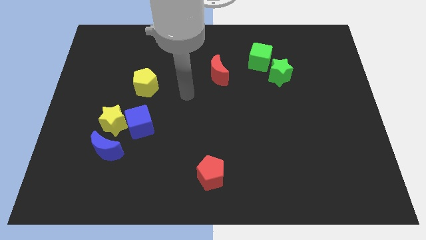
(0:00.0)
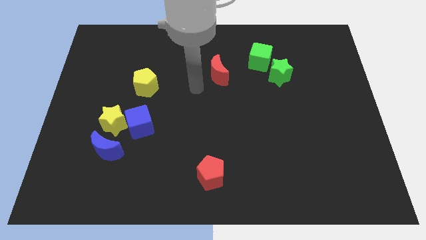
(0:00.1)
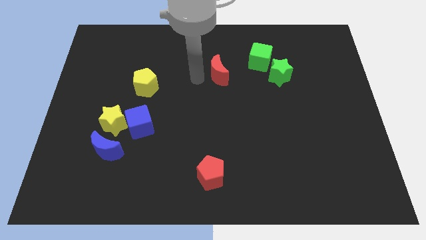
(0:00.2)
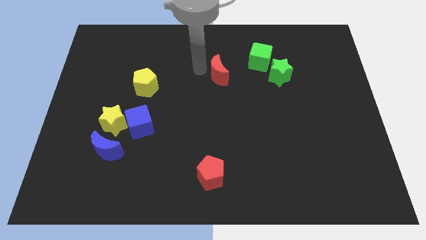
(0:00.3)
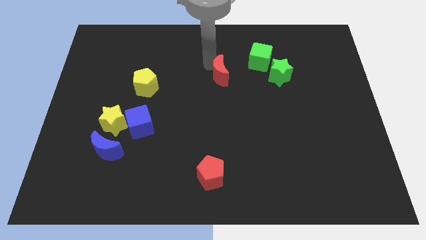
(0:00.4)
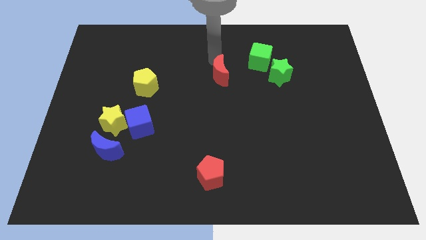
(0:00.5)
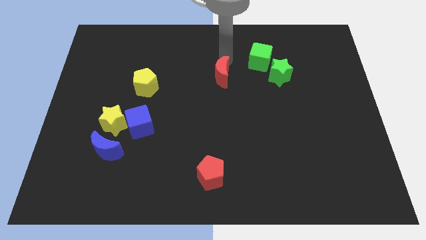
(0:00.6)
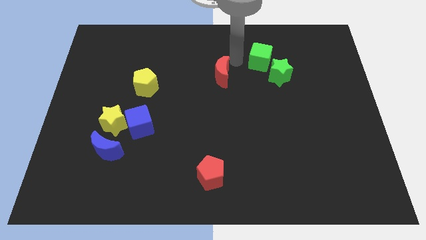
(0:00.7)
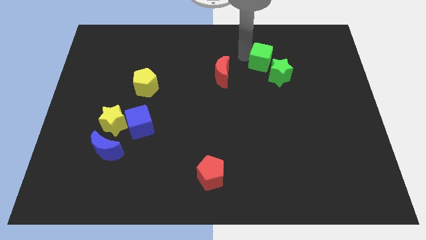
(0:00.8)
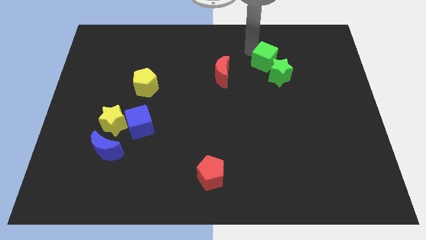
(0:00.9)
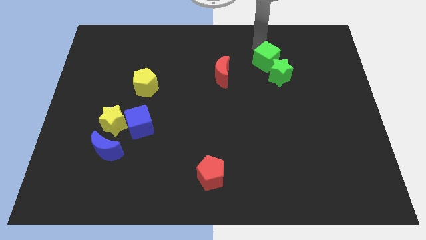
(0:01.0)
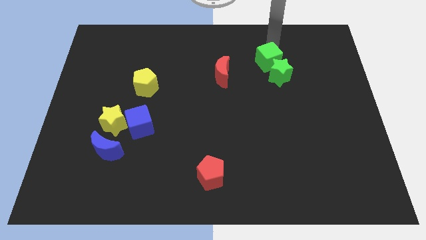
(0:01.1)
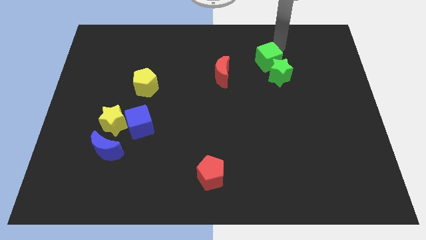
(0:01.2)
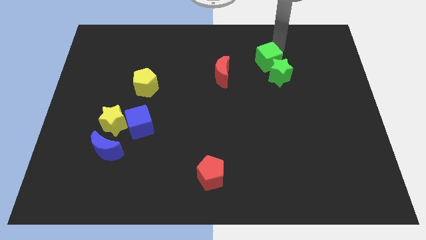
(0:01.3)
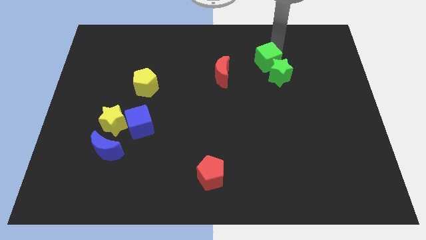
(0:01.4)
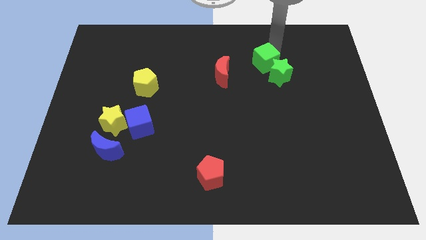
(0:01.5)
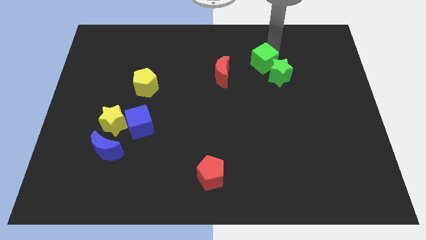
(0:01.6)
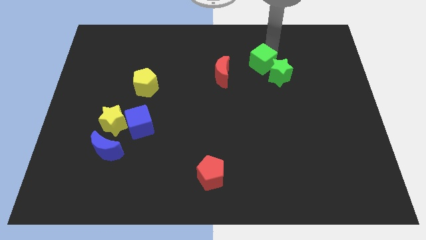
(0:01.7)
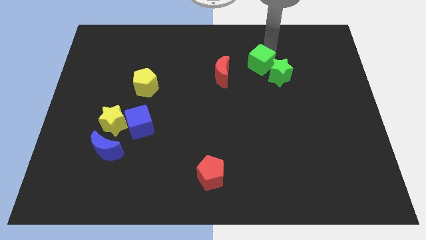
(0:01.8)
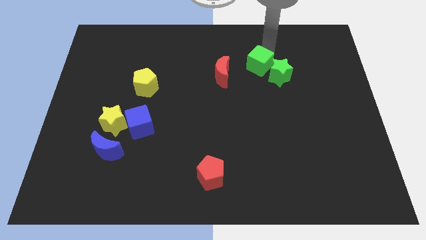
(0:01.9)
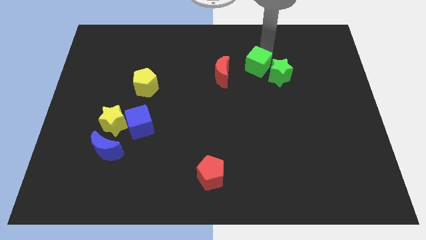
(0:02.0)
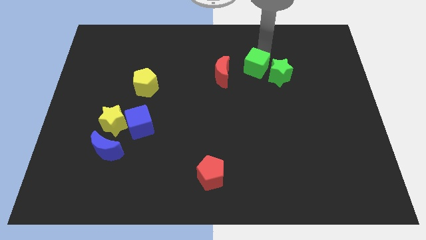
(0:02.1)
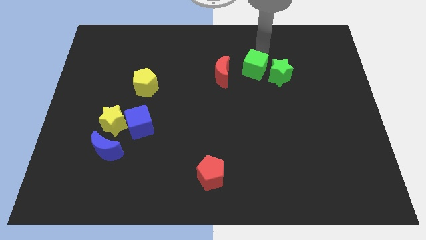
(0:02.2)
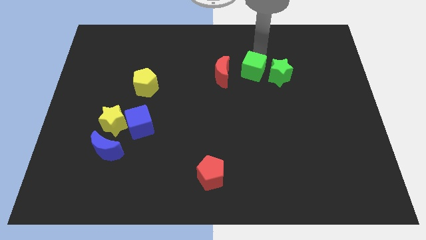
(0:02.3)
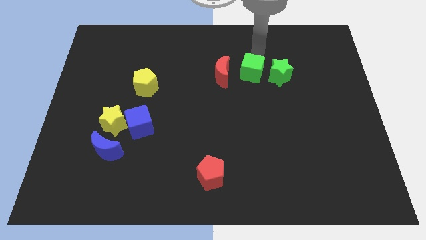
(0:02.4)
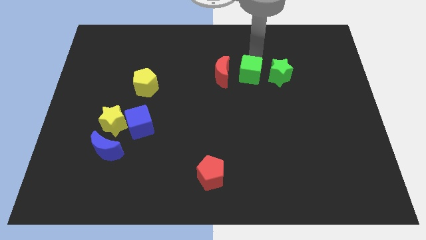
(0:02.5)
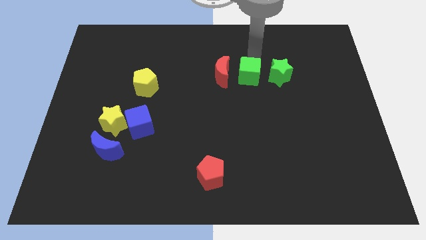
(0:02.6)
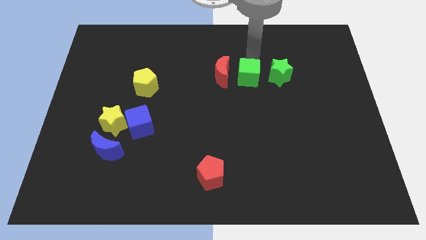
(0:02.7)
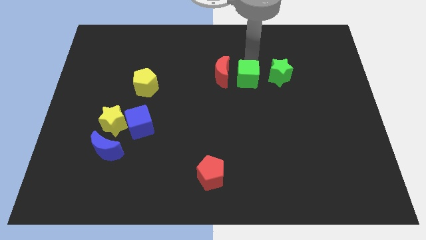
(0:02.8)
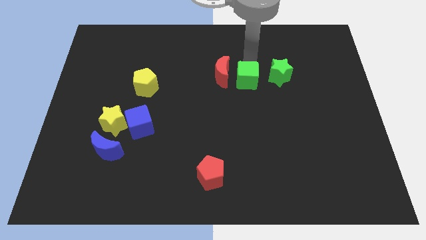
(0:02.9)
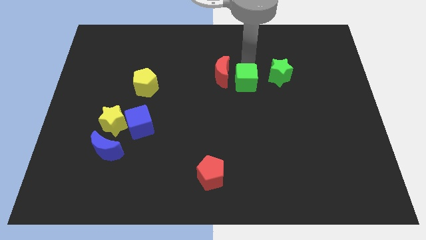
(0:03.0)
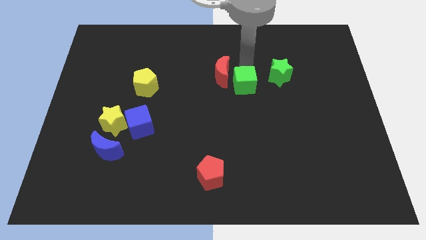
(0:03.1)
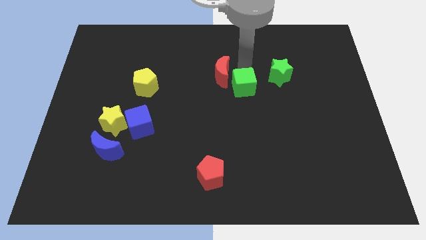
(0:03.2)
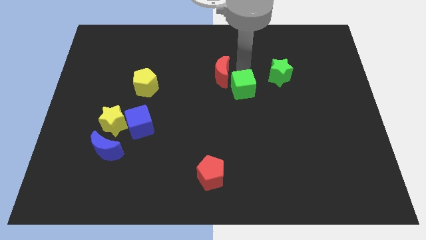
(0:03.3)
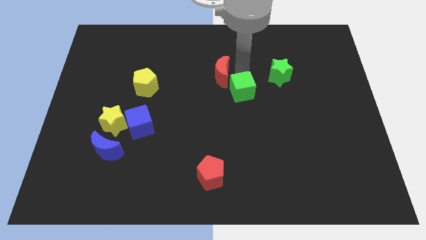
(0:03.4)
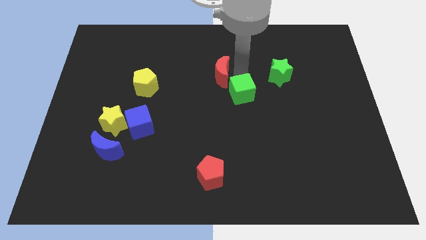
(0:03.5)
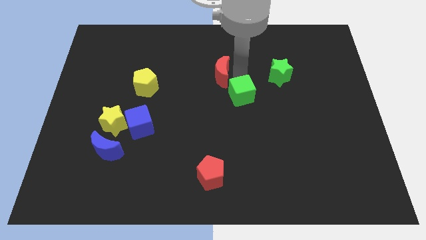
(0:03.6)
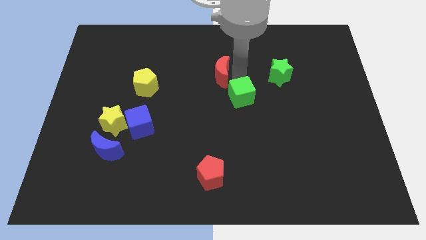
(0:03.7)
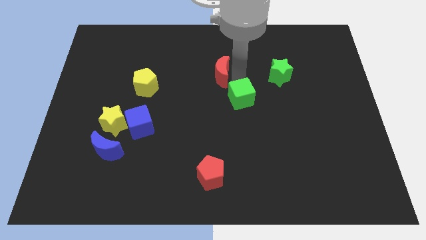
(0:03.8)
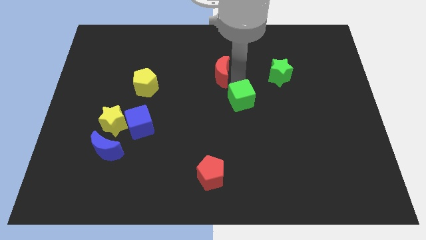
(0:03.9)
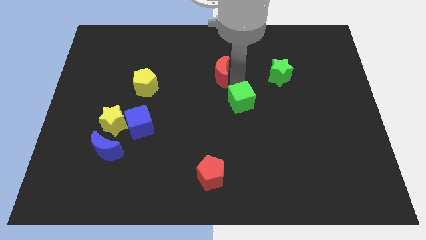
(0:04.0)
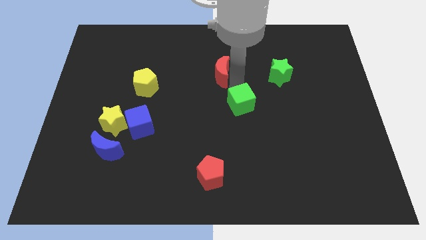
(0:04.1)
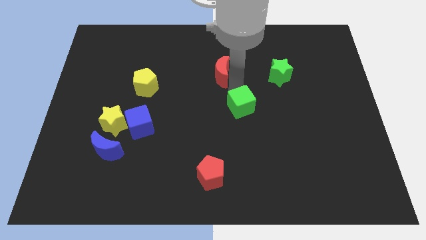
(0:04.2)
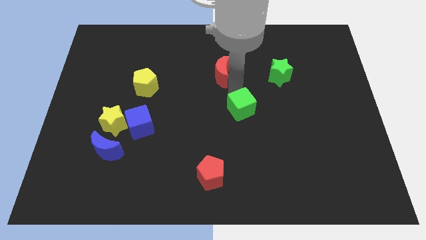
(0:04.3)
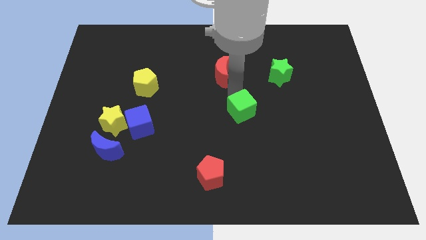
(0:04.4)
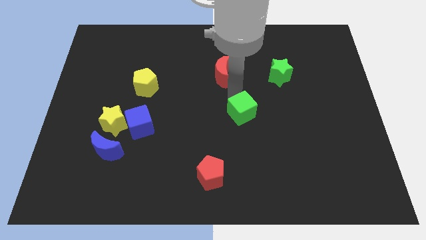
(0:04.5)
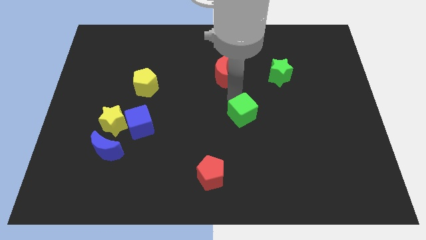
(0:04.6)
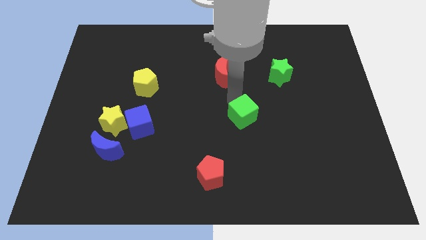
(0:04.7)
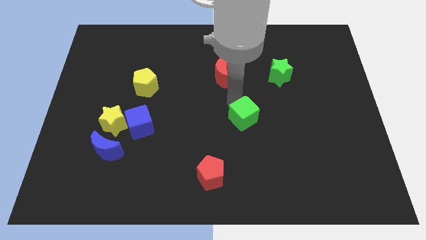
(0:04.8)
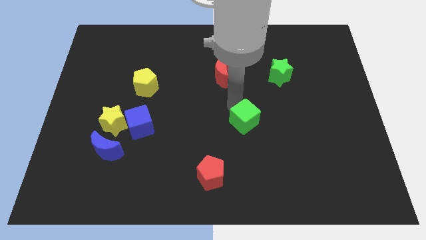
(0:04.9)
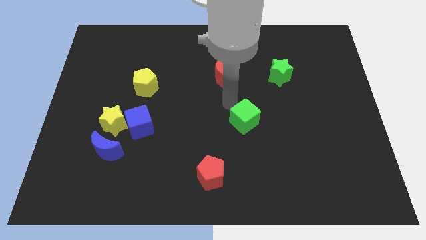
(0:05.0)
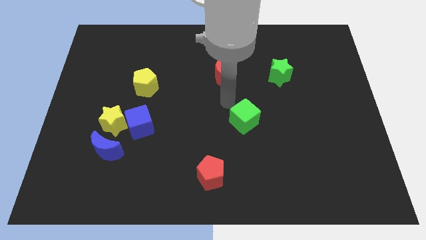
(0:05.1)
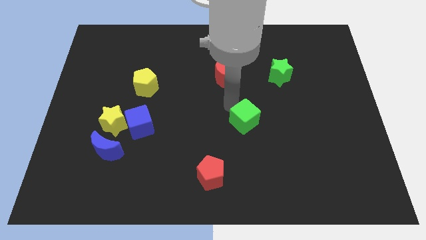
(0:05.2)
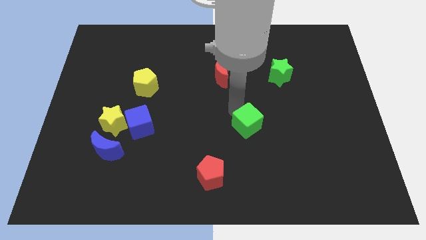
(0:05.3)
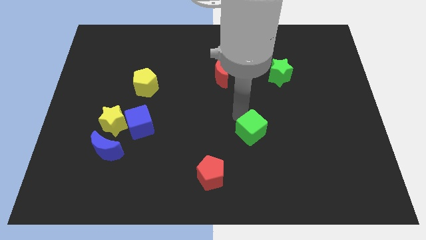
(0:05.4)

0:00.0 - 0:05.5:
push the green cube downwards

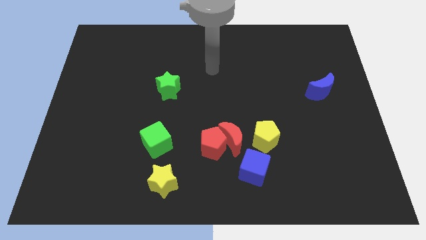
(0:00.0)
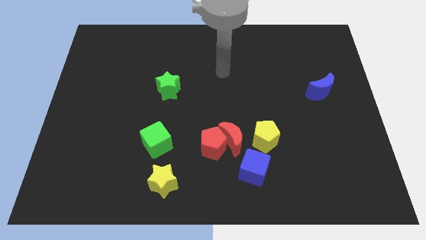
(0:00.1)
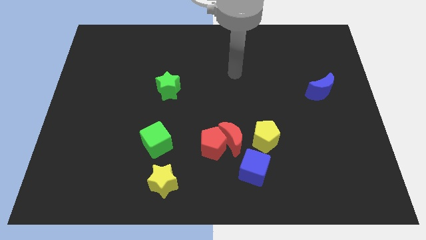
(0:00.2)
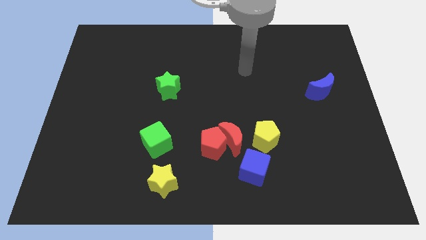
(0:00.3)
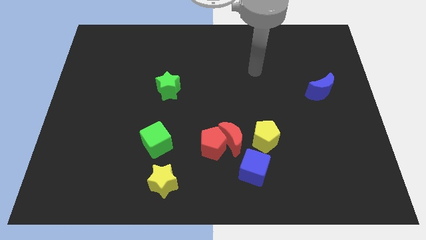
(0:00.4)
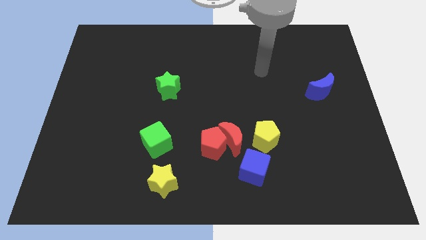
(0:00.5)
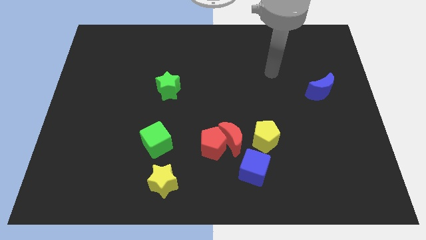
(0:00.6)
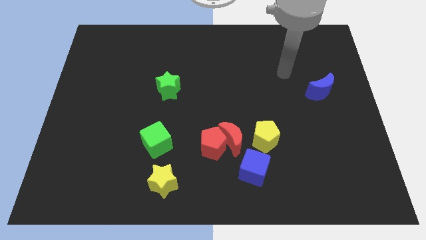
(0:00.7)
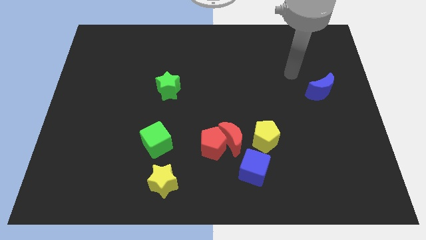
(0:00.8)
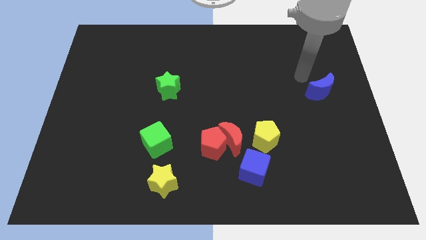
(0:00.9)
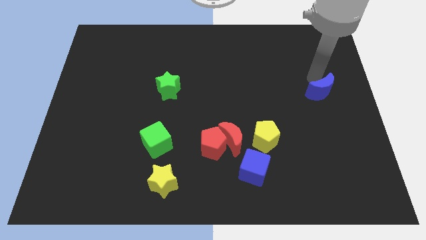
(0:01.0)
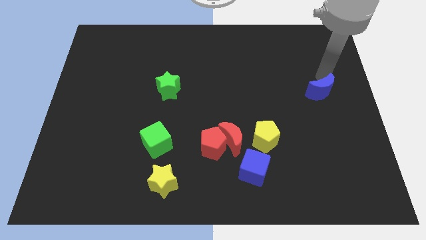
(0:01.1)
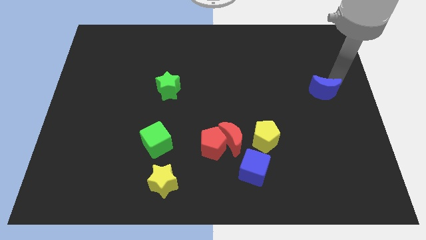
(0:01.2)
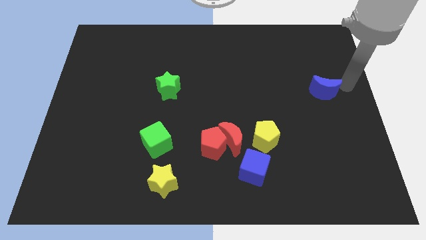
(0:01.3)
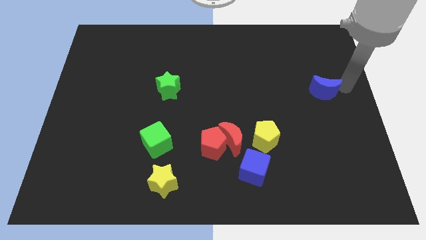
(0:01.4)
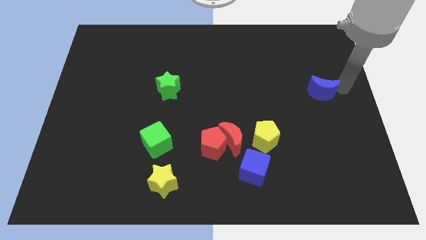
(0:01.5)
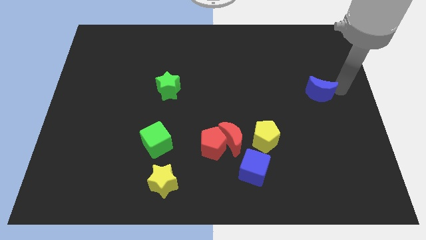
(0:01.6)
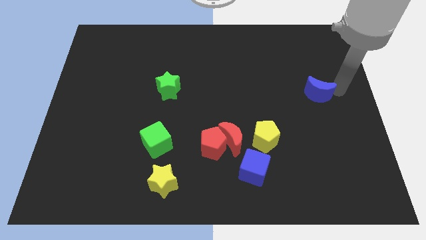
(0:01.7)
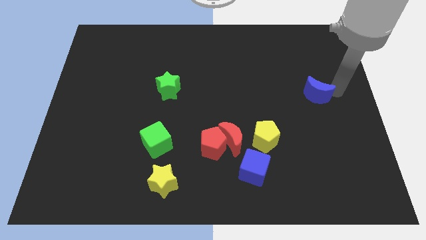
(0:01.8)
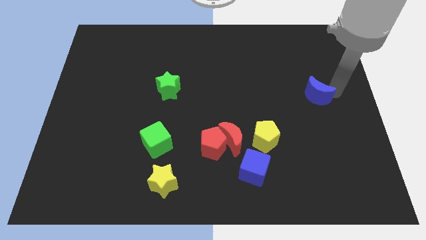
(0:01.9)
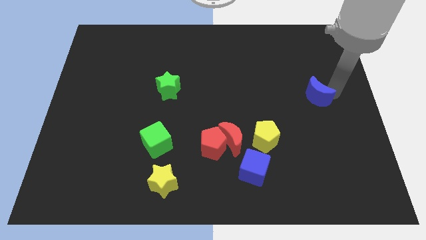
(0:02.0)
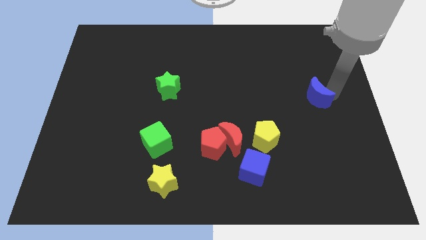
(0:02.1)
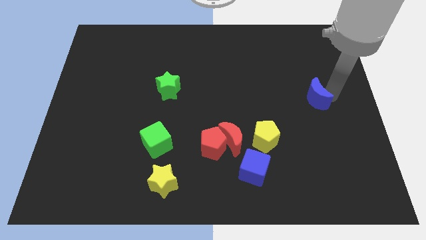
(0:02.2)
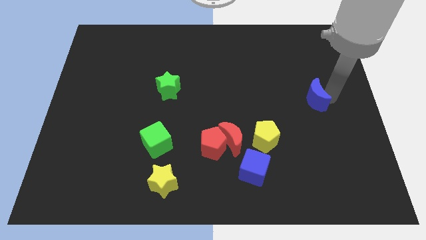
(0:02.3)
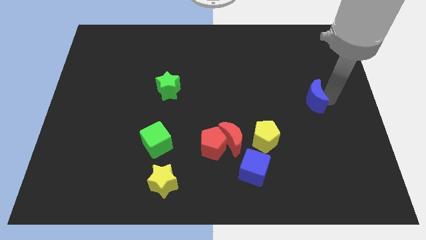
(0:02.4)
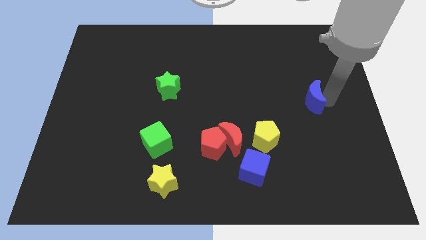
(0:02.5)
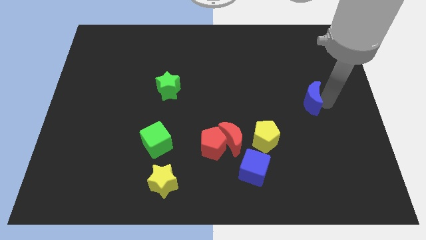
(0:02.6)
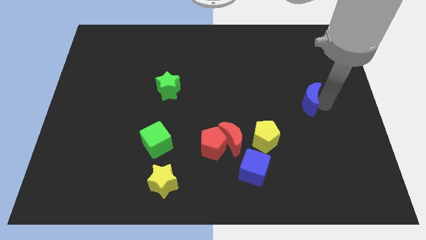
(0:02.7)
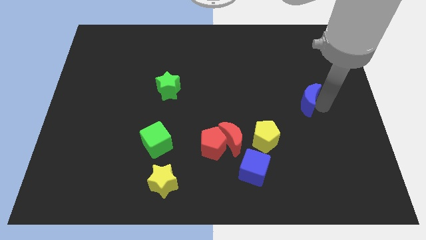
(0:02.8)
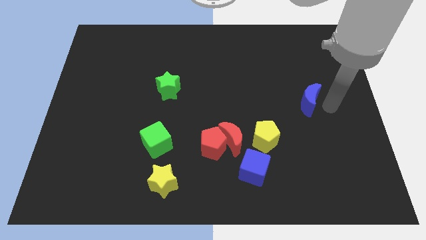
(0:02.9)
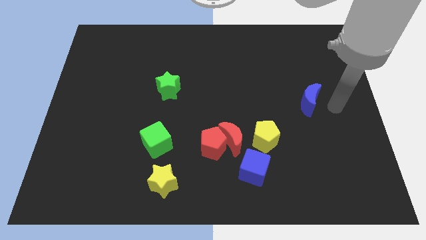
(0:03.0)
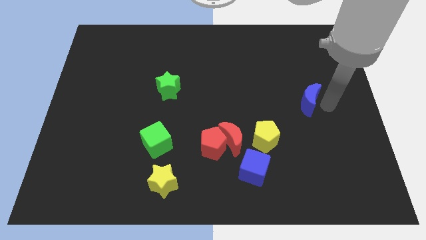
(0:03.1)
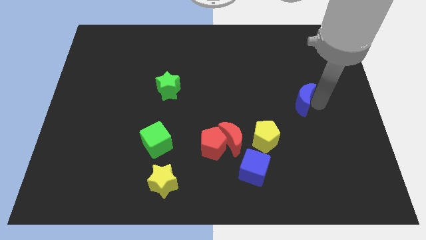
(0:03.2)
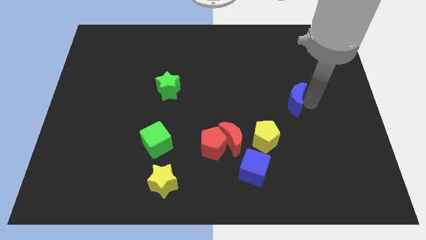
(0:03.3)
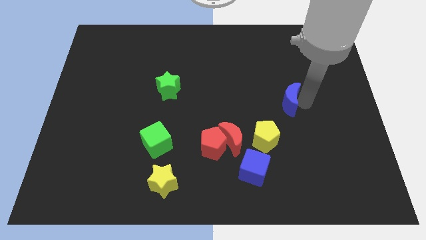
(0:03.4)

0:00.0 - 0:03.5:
slide the blue moon a bit to the left
